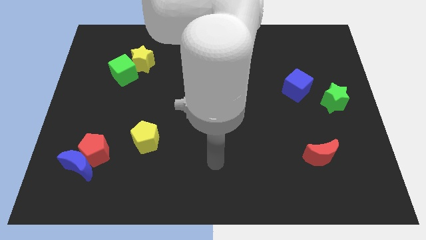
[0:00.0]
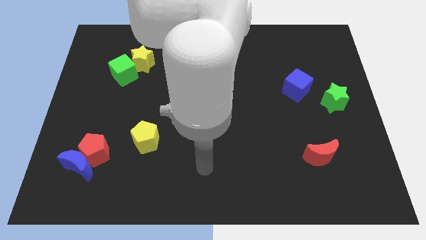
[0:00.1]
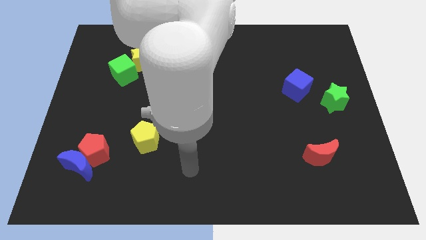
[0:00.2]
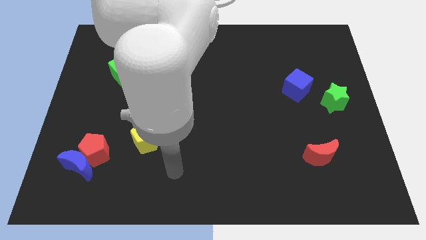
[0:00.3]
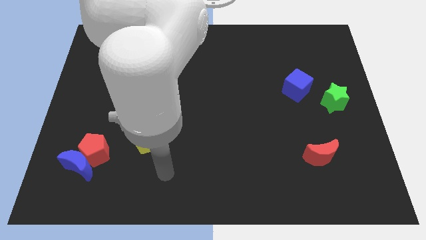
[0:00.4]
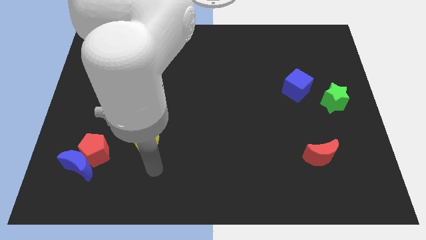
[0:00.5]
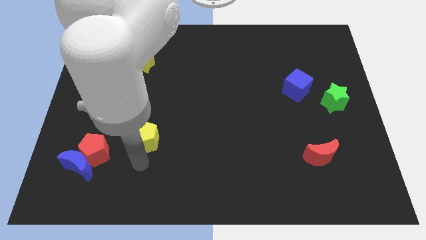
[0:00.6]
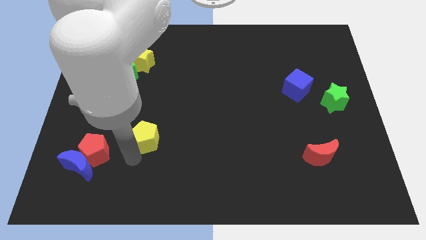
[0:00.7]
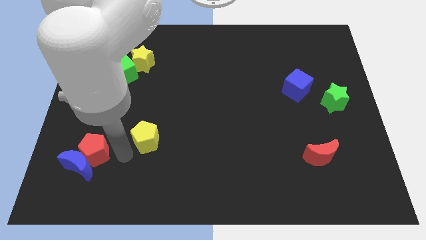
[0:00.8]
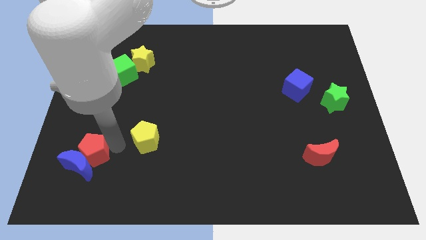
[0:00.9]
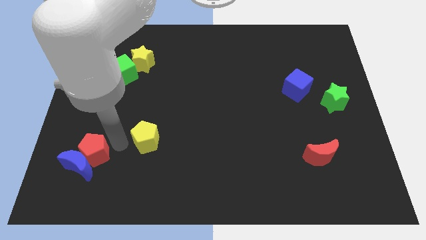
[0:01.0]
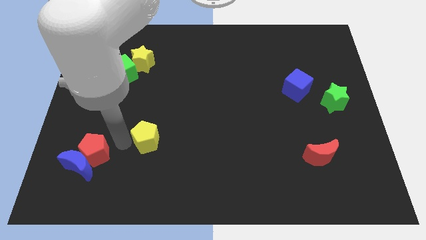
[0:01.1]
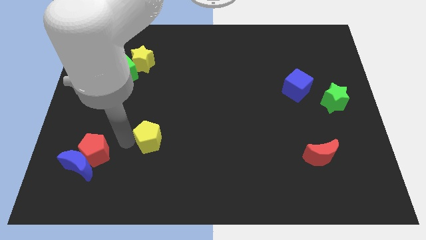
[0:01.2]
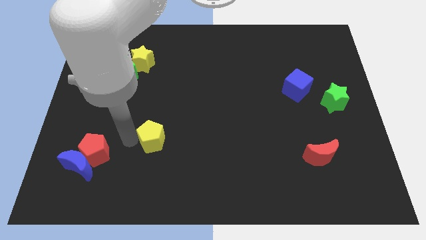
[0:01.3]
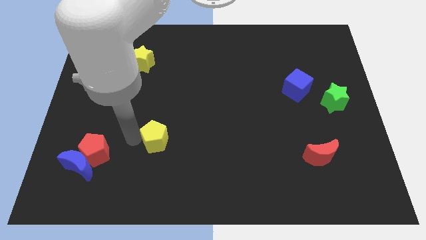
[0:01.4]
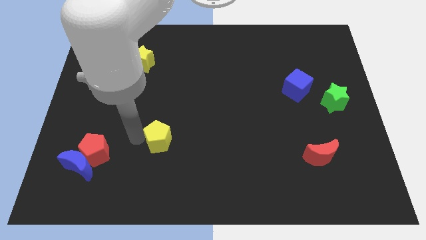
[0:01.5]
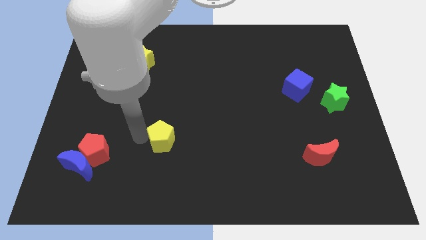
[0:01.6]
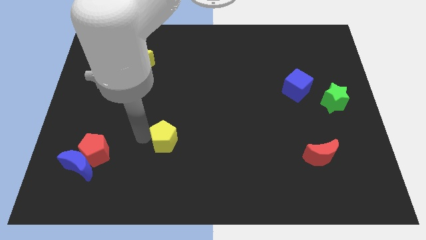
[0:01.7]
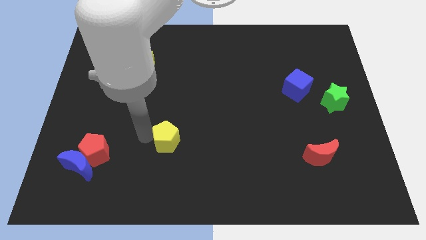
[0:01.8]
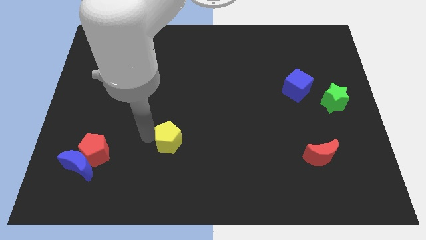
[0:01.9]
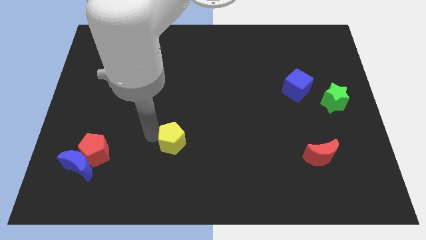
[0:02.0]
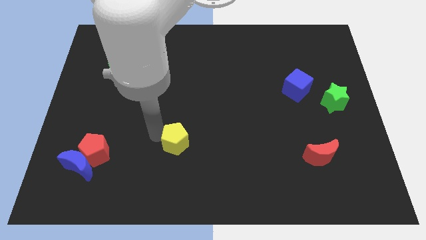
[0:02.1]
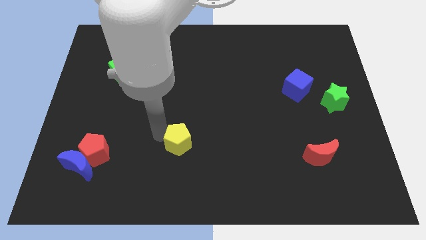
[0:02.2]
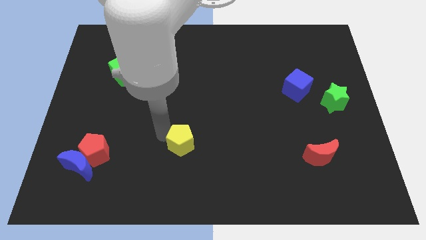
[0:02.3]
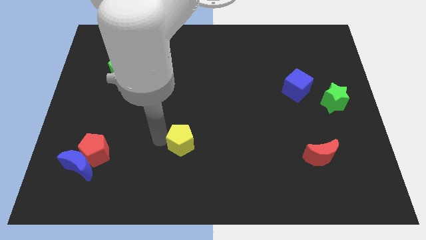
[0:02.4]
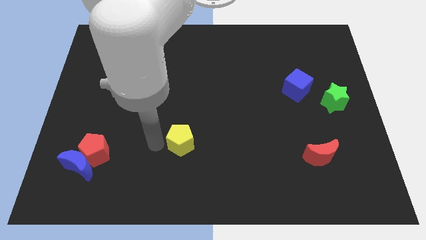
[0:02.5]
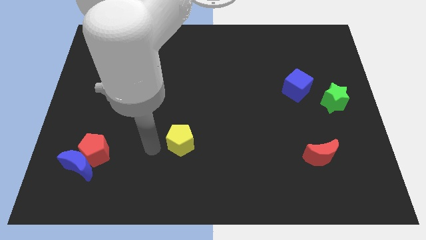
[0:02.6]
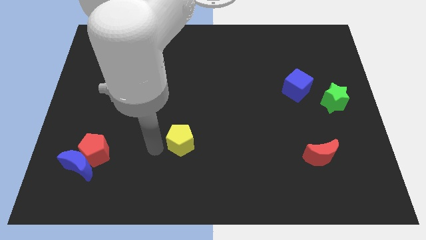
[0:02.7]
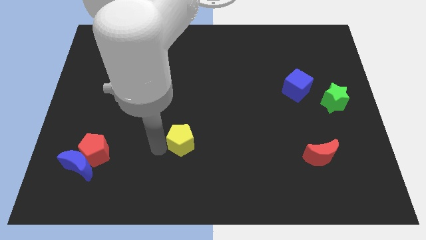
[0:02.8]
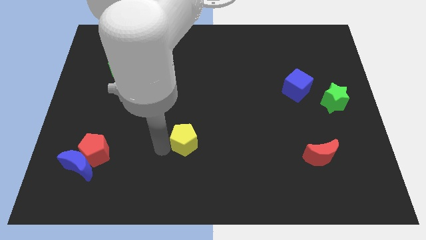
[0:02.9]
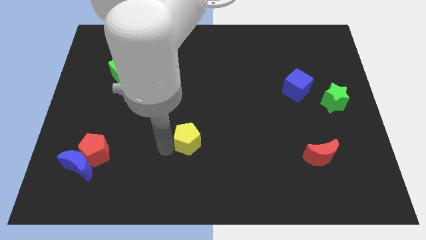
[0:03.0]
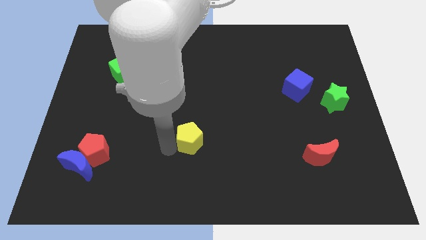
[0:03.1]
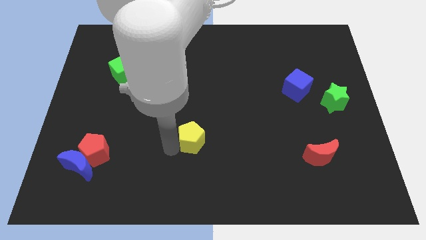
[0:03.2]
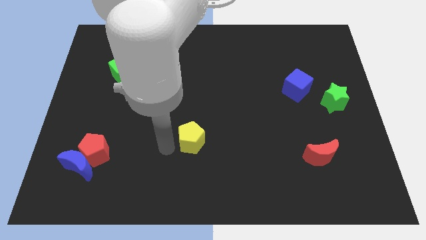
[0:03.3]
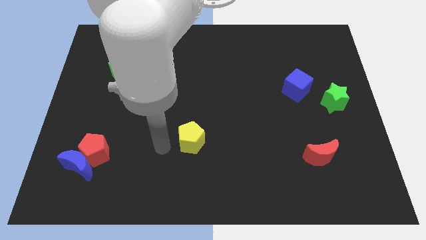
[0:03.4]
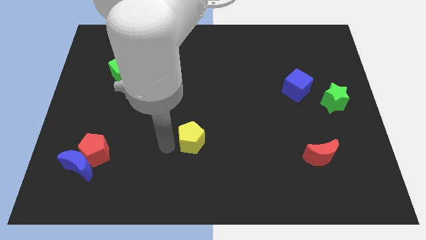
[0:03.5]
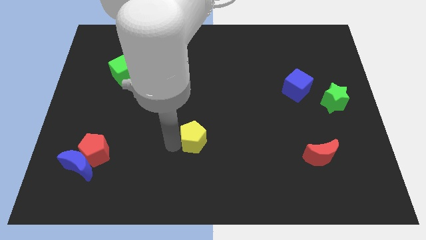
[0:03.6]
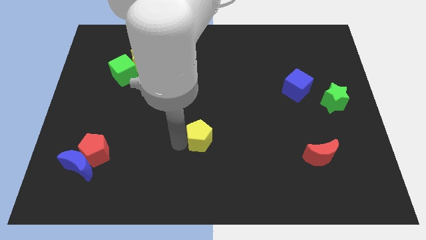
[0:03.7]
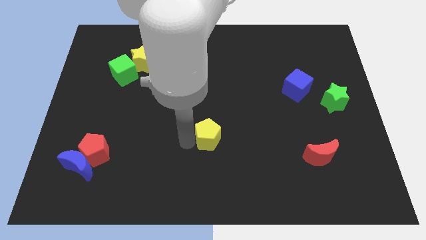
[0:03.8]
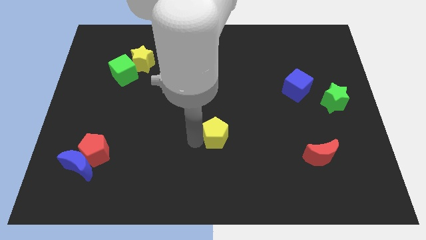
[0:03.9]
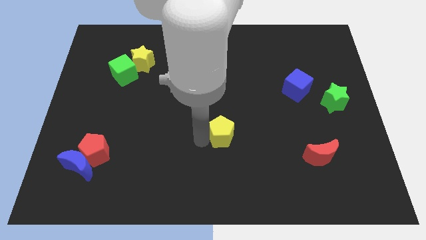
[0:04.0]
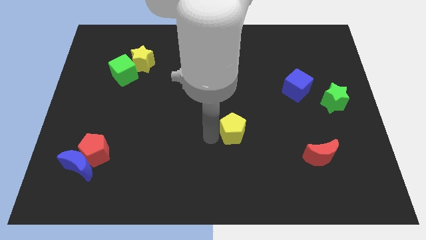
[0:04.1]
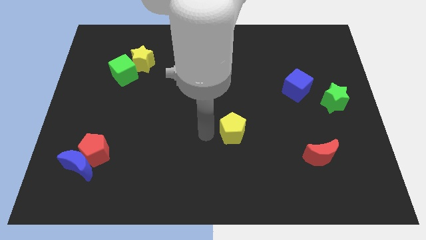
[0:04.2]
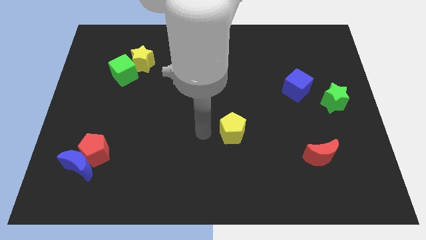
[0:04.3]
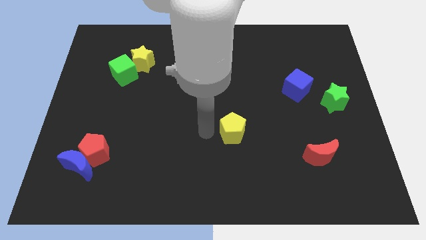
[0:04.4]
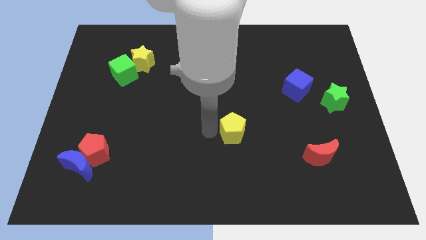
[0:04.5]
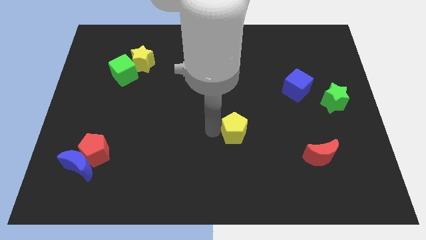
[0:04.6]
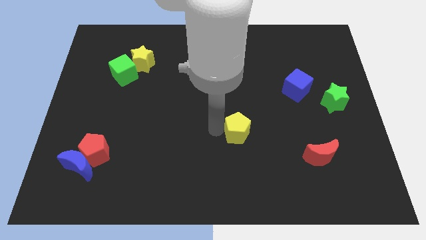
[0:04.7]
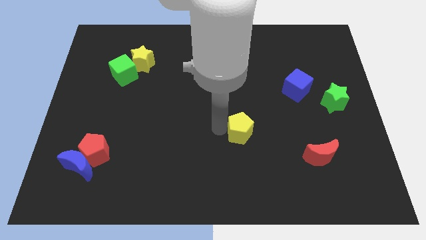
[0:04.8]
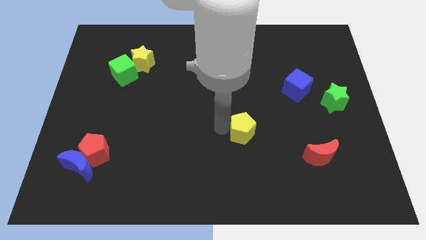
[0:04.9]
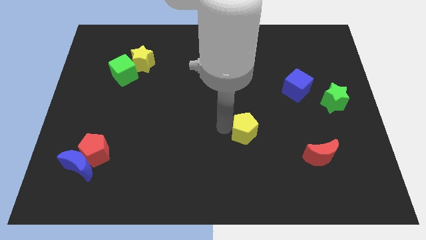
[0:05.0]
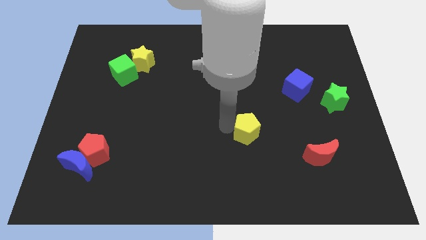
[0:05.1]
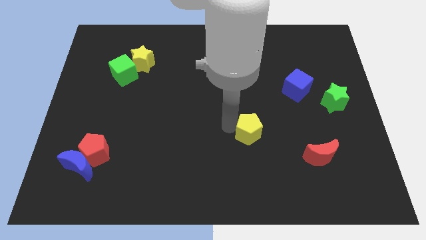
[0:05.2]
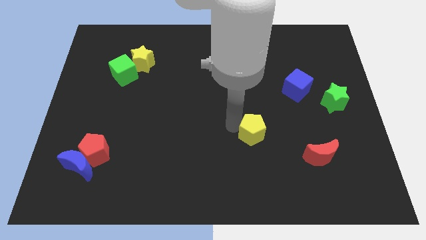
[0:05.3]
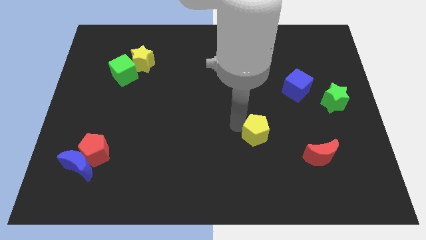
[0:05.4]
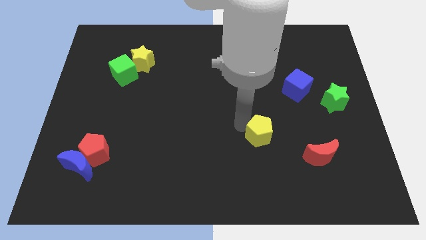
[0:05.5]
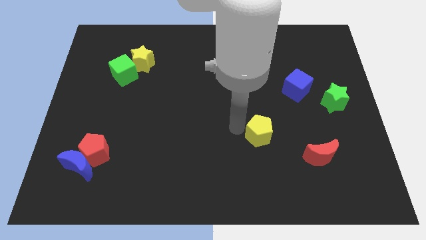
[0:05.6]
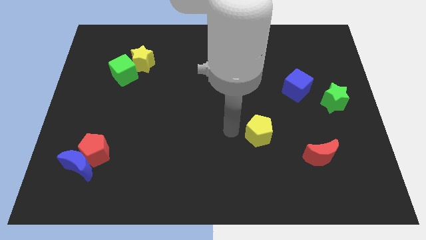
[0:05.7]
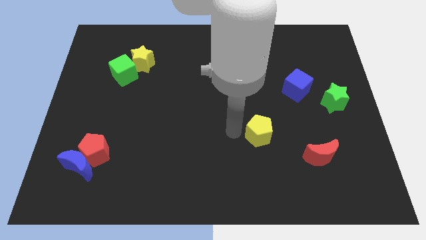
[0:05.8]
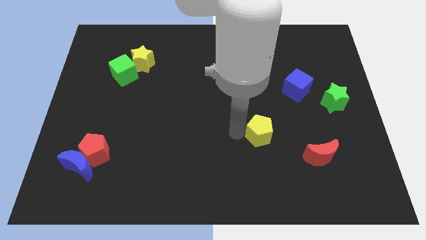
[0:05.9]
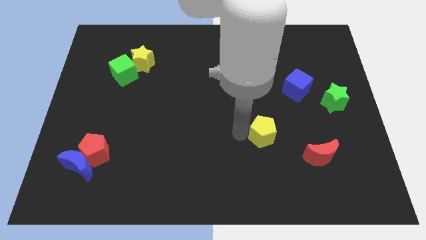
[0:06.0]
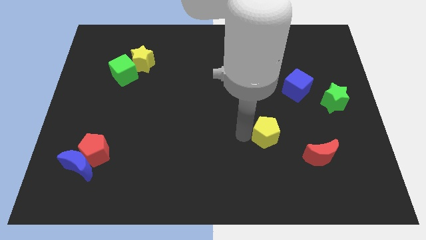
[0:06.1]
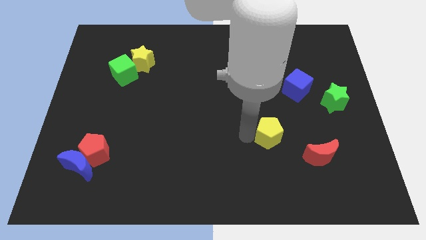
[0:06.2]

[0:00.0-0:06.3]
put the yellow pentagon to the top left side of the red moon
